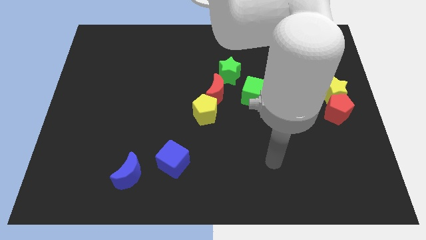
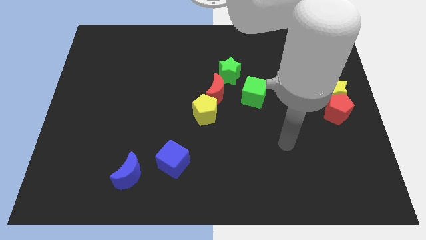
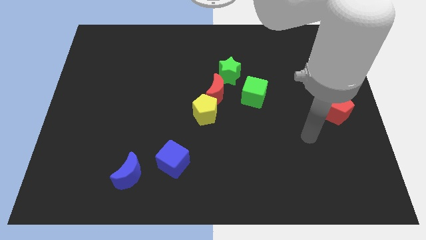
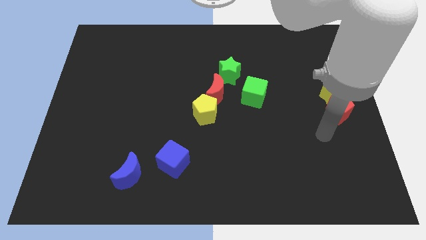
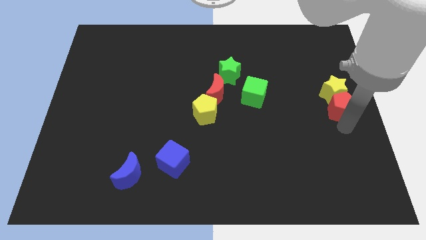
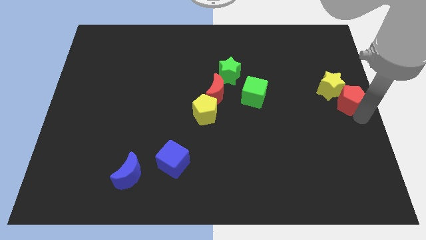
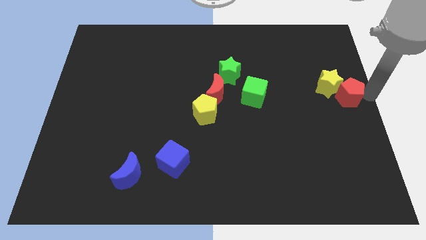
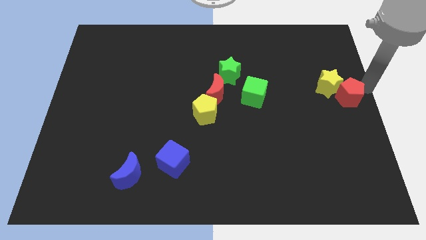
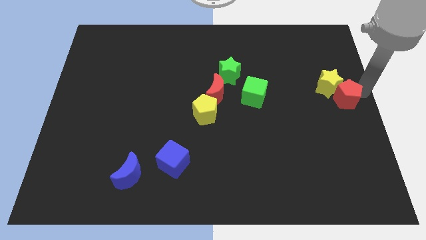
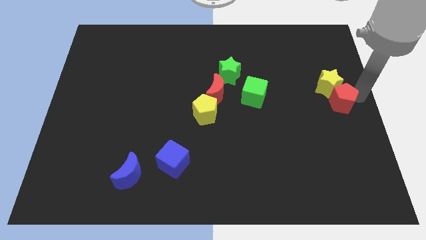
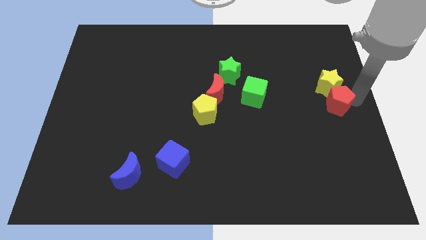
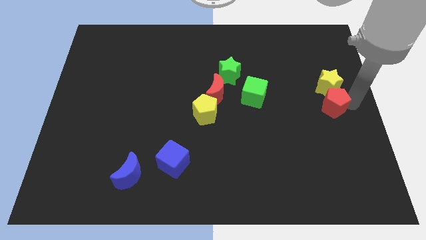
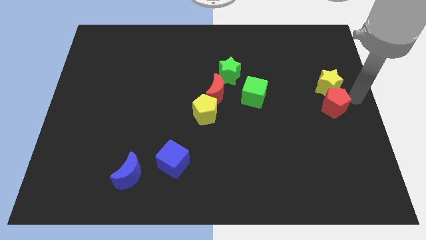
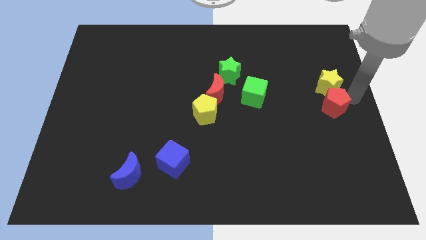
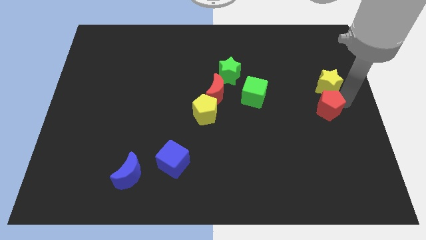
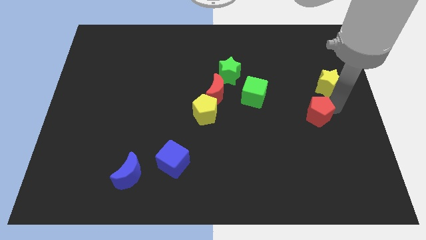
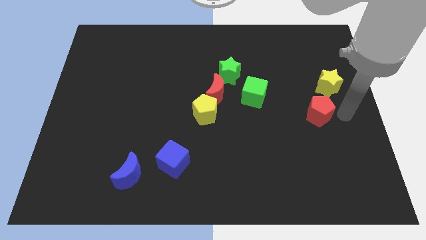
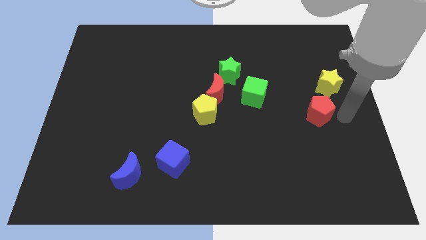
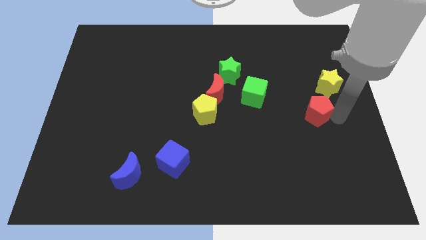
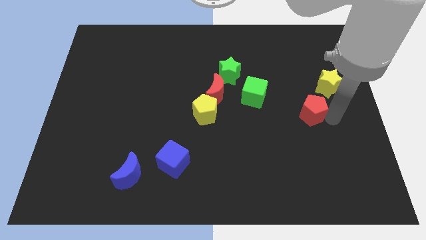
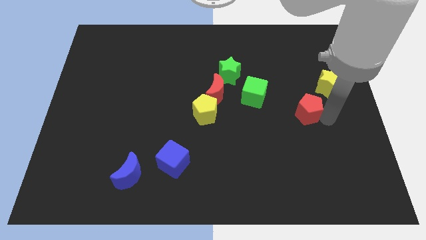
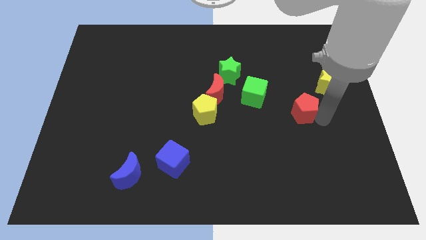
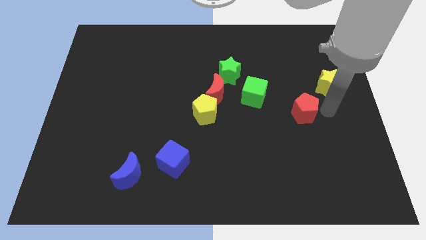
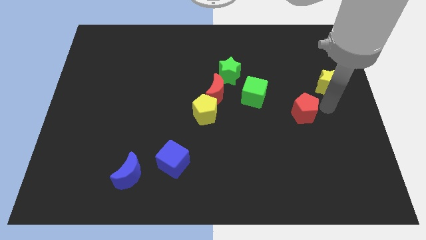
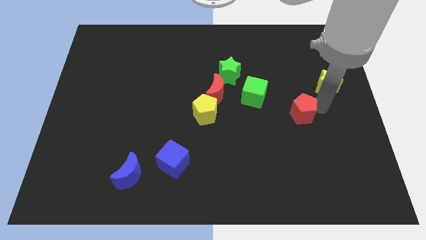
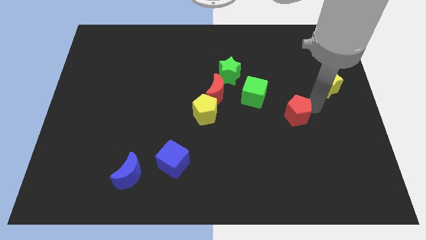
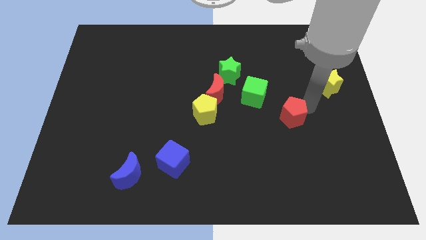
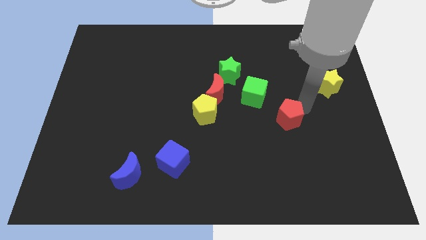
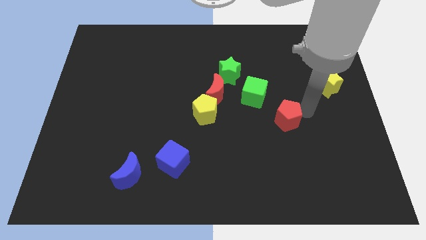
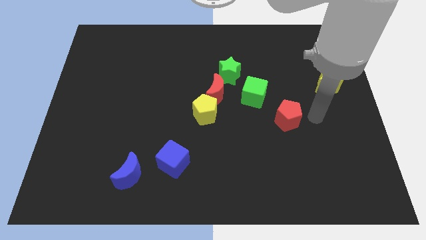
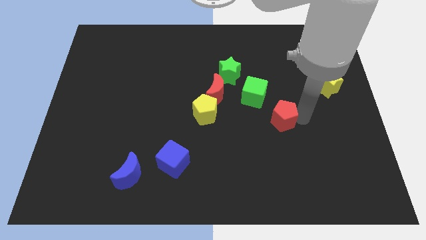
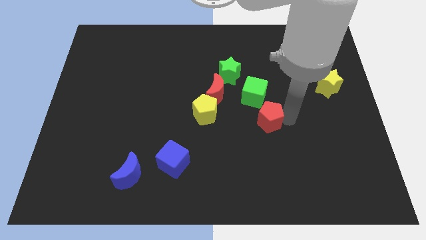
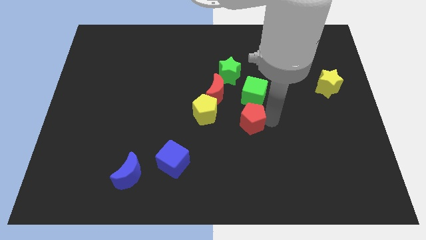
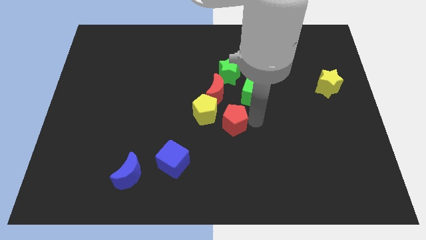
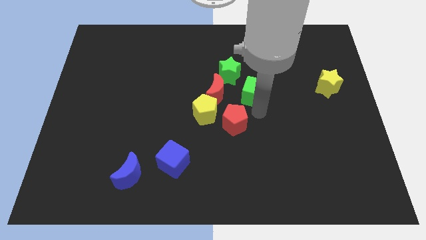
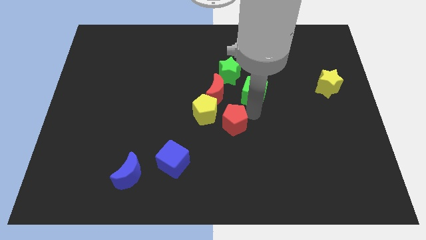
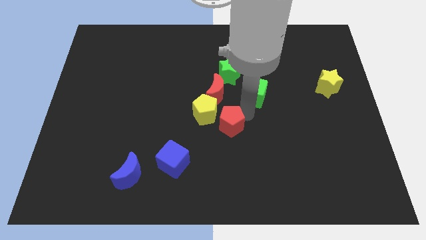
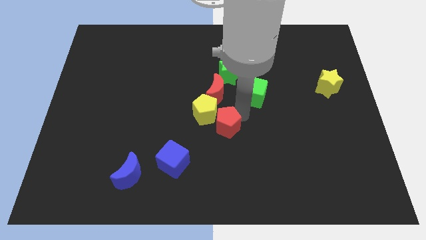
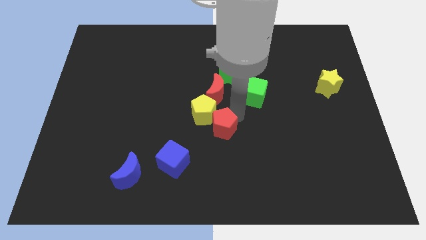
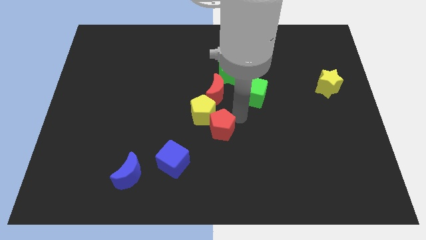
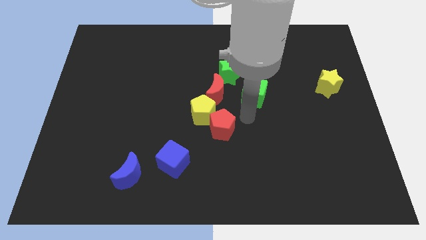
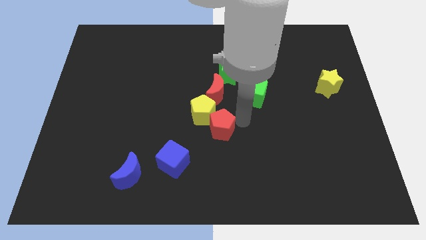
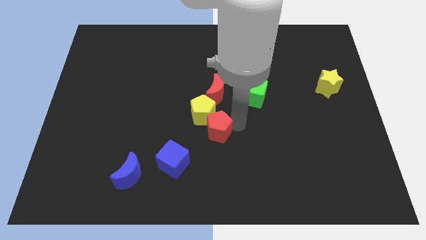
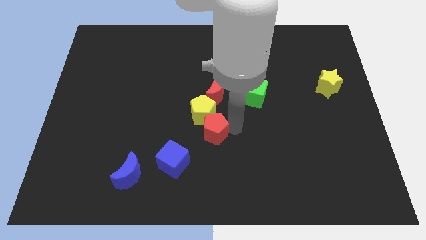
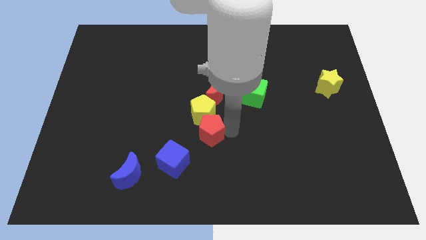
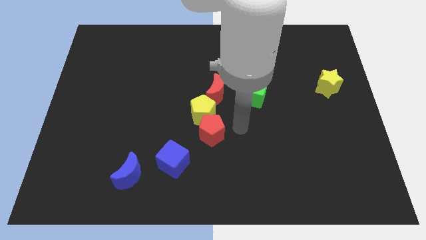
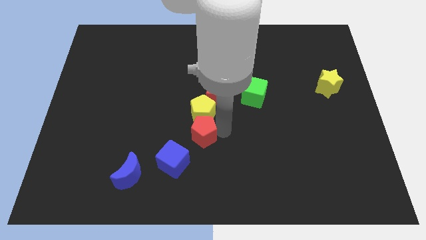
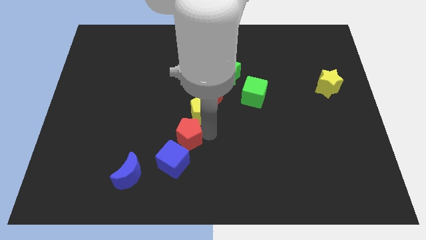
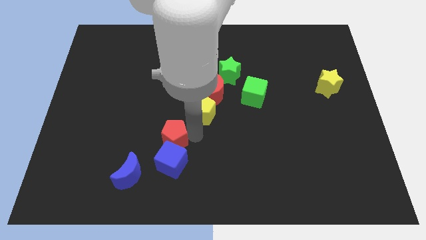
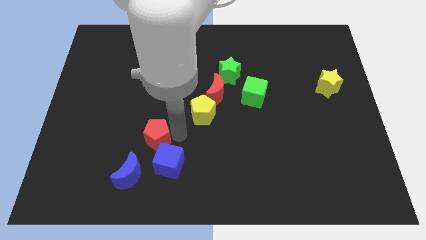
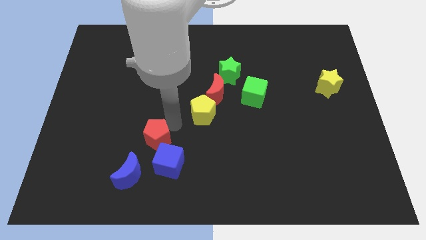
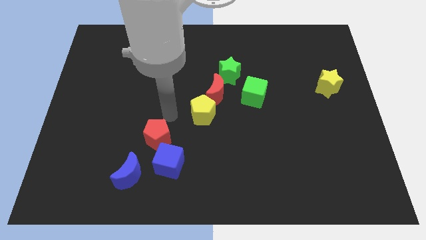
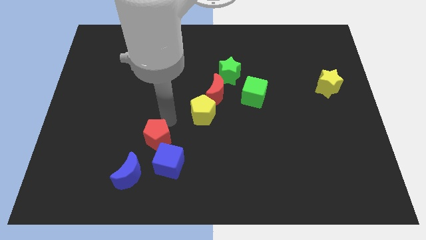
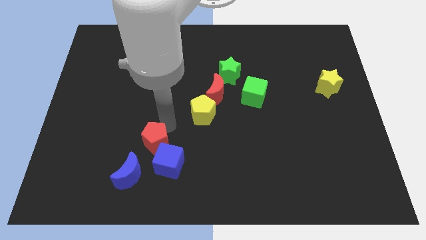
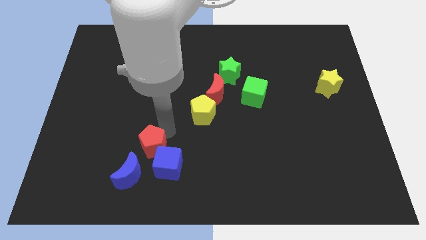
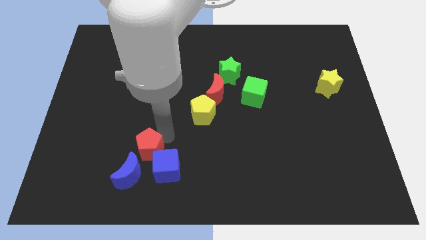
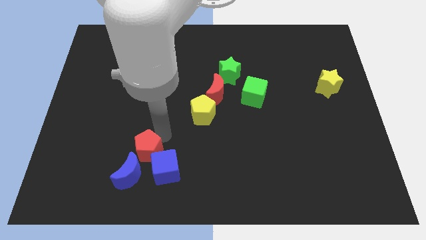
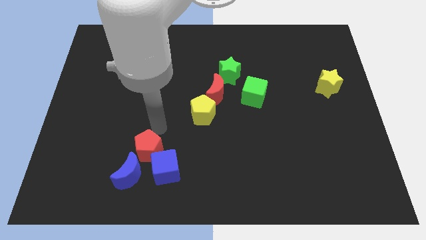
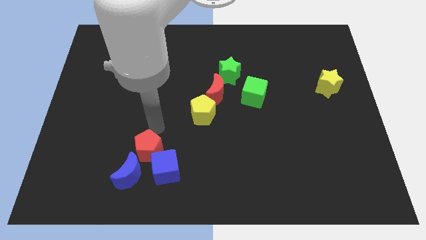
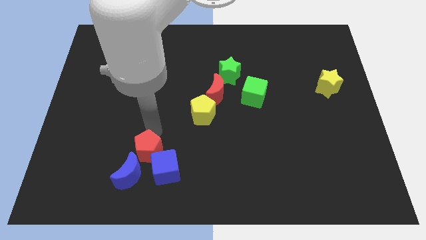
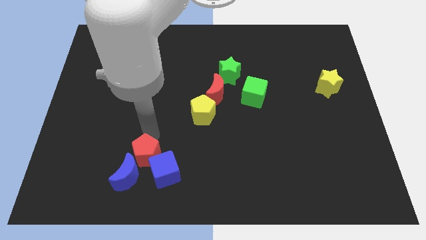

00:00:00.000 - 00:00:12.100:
put the red pentagon close to the blue moon

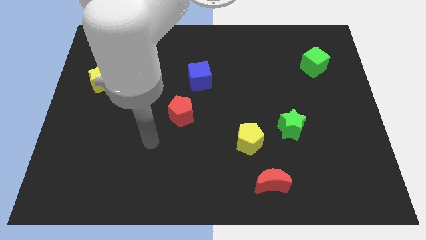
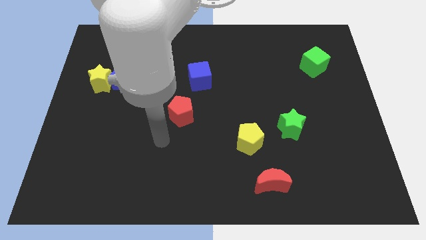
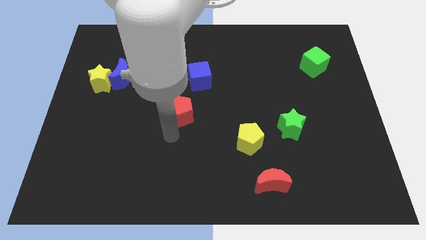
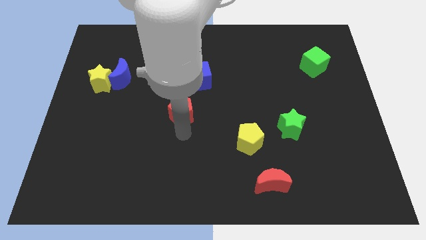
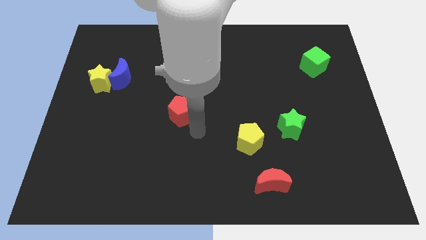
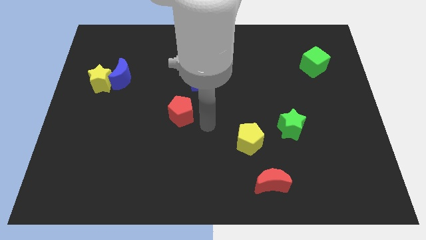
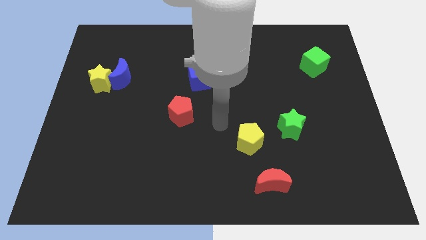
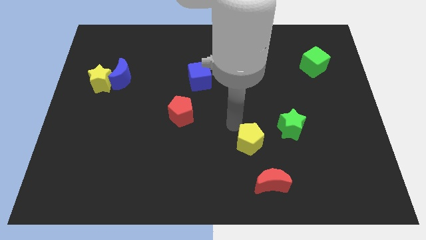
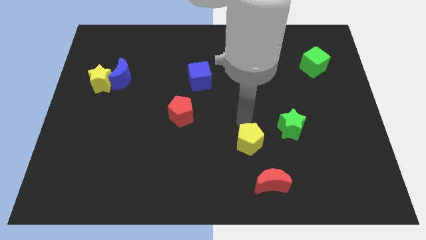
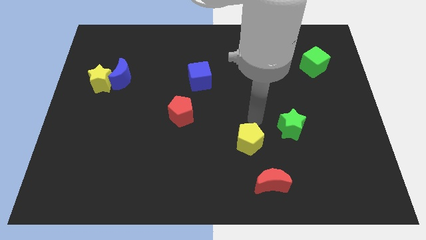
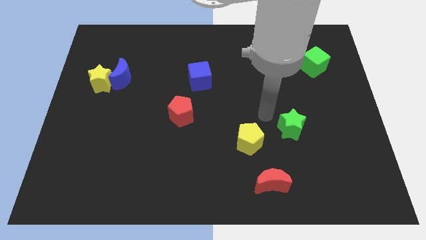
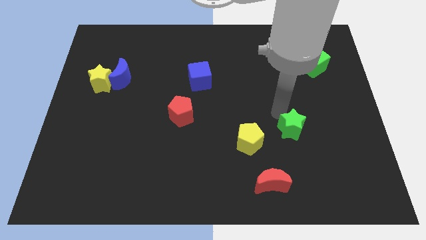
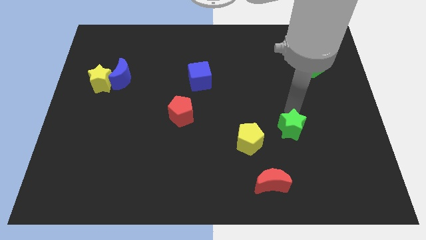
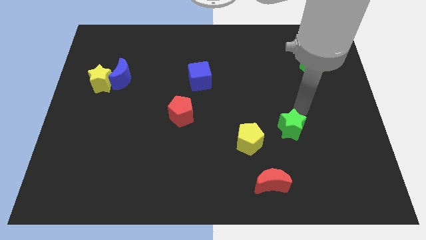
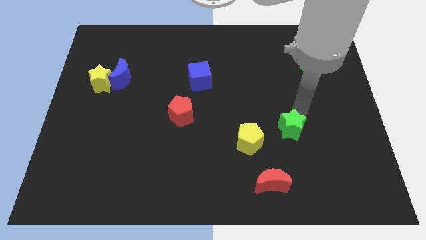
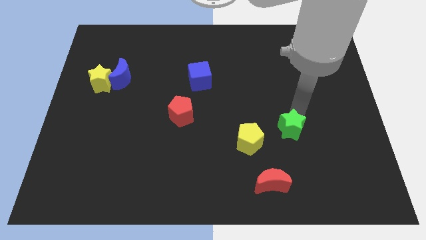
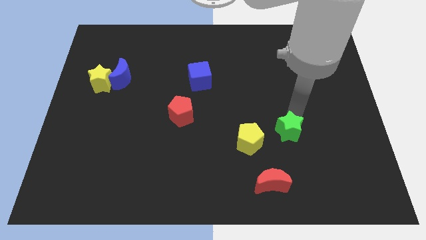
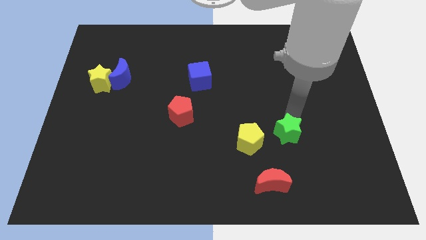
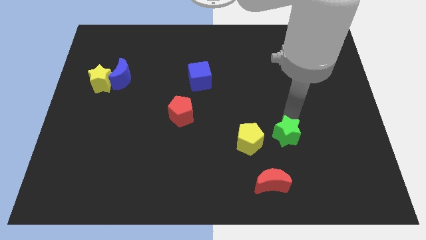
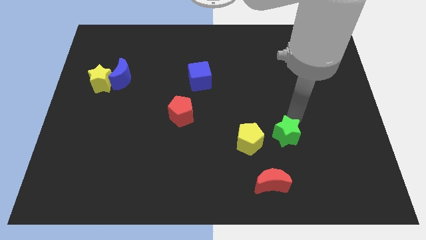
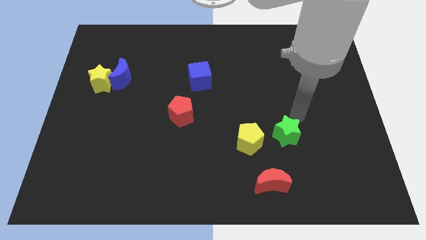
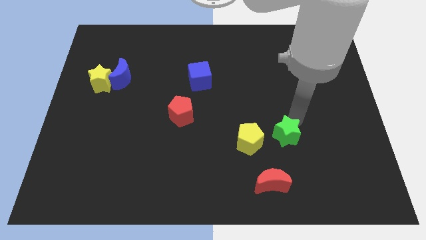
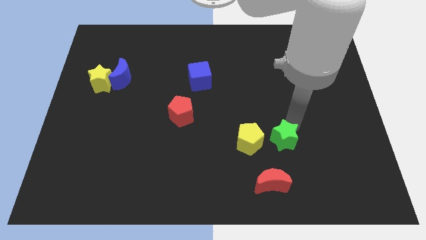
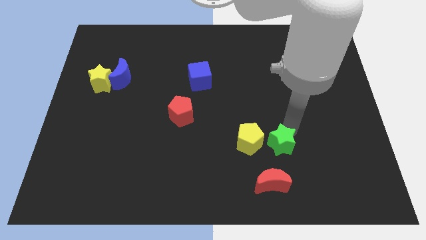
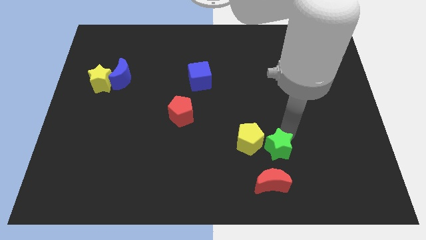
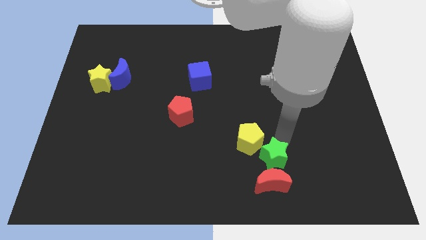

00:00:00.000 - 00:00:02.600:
push the green star close to the red moon
